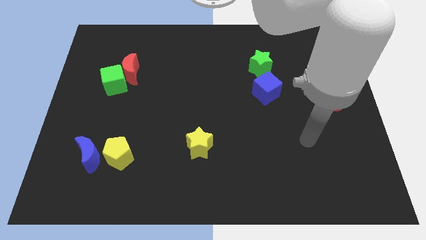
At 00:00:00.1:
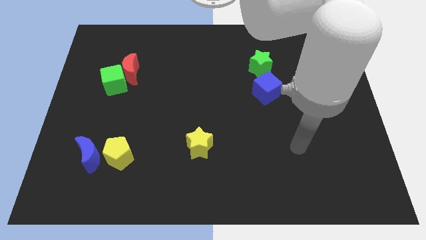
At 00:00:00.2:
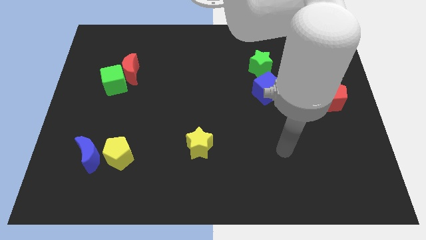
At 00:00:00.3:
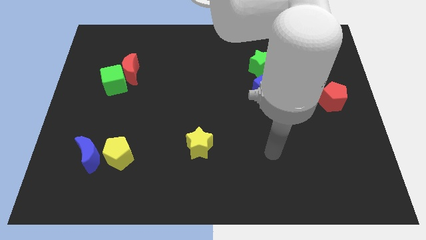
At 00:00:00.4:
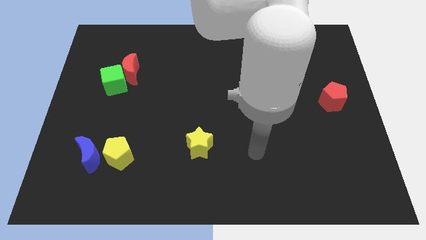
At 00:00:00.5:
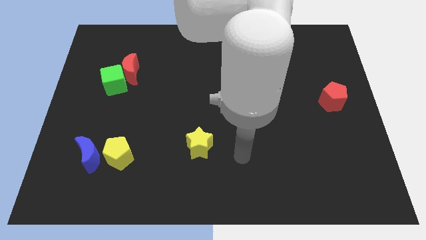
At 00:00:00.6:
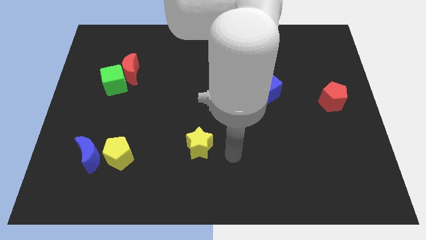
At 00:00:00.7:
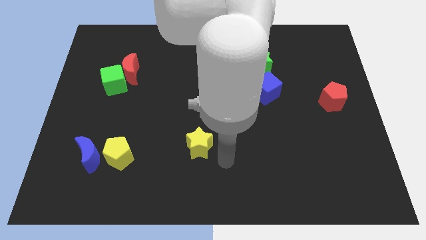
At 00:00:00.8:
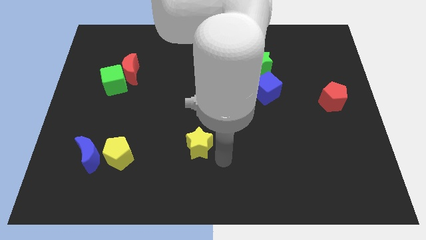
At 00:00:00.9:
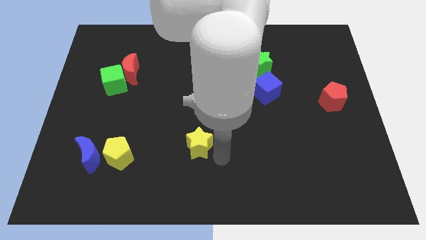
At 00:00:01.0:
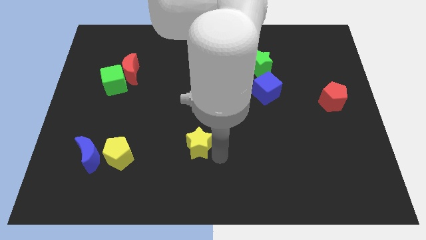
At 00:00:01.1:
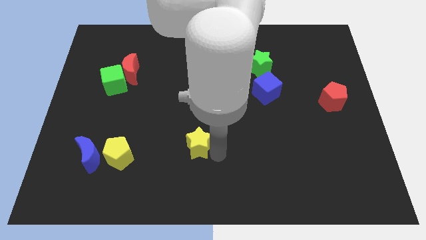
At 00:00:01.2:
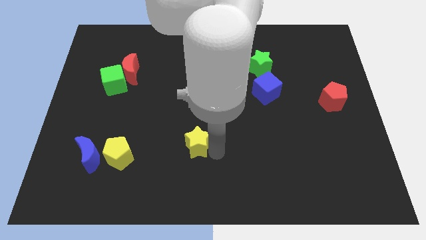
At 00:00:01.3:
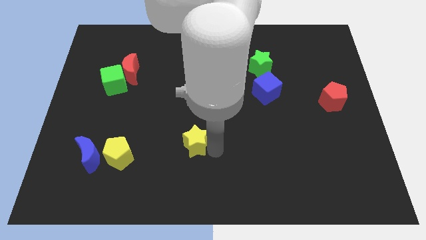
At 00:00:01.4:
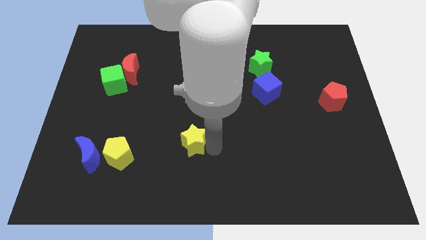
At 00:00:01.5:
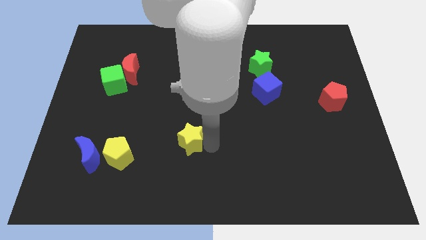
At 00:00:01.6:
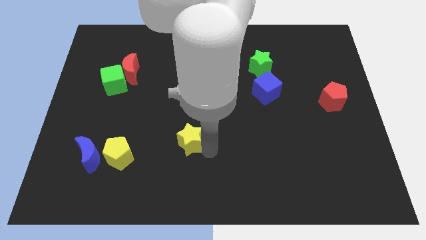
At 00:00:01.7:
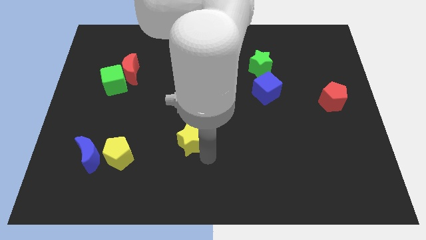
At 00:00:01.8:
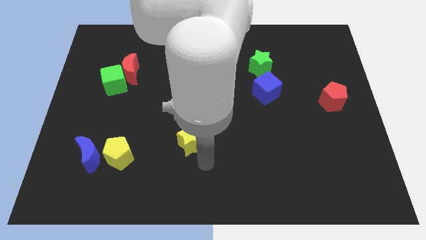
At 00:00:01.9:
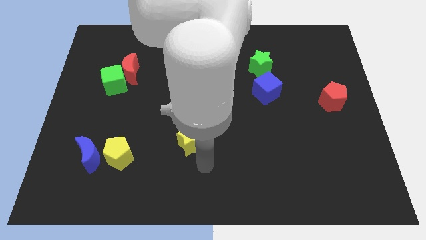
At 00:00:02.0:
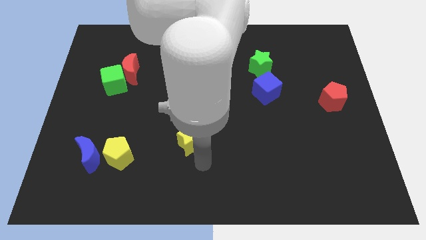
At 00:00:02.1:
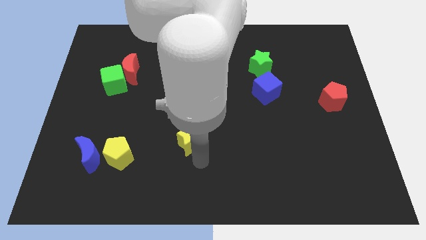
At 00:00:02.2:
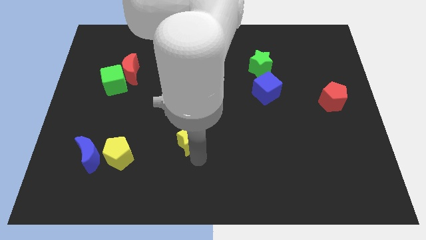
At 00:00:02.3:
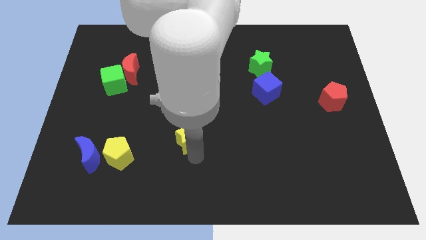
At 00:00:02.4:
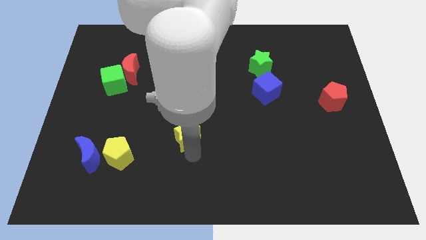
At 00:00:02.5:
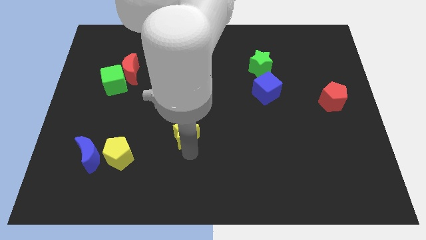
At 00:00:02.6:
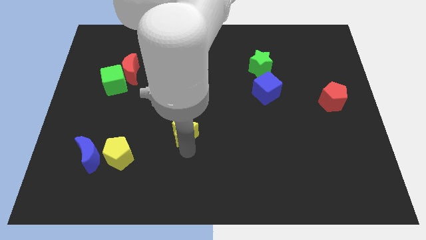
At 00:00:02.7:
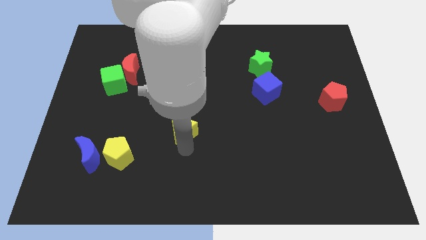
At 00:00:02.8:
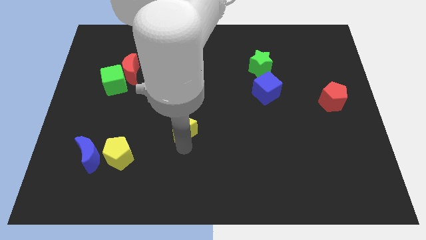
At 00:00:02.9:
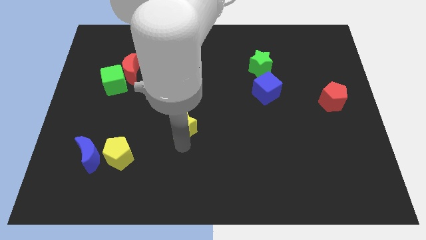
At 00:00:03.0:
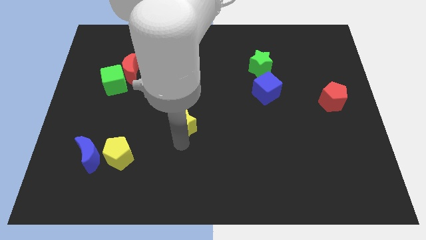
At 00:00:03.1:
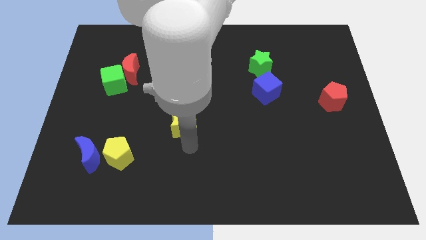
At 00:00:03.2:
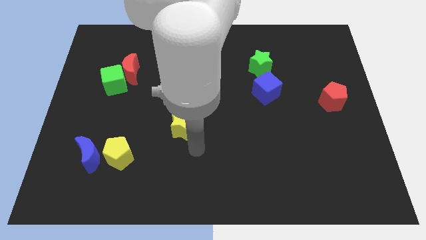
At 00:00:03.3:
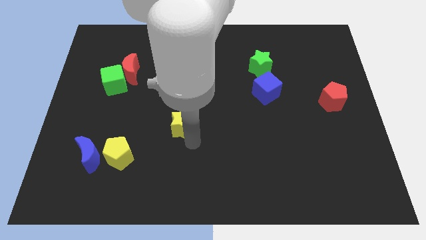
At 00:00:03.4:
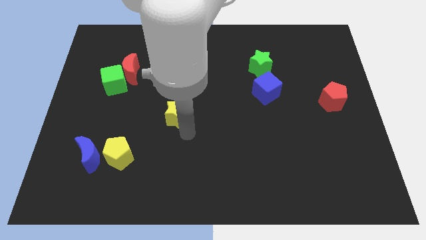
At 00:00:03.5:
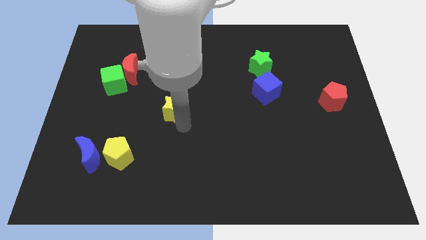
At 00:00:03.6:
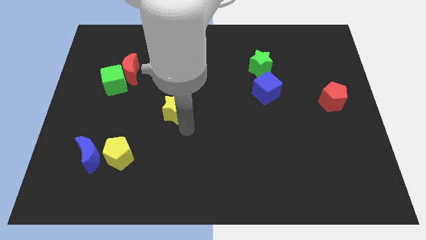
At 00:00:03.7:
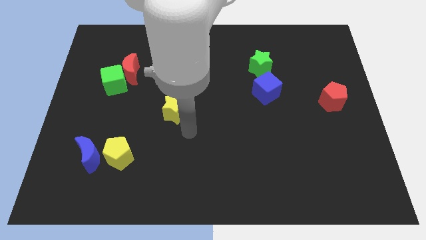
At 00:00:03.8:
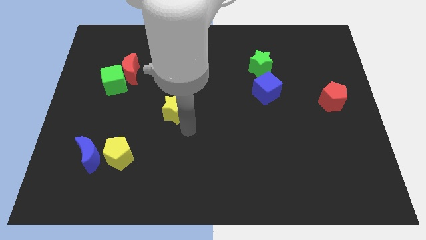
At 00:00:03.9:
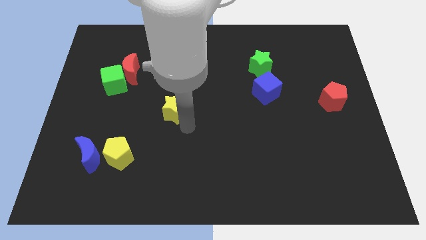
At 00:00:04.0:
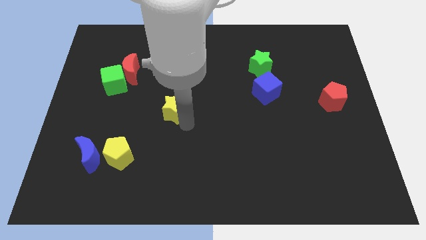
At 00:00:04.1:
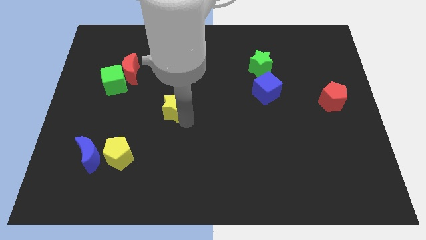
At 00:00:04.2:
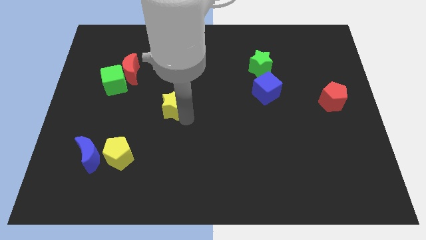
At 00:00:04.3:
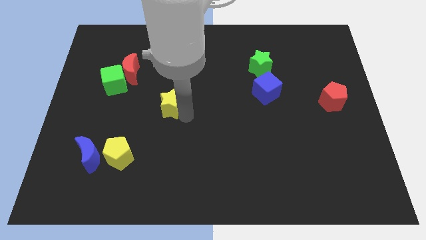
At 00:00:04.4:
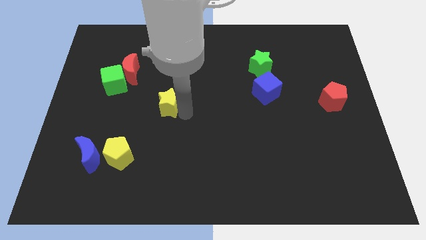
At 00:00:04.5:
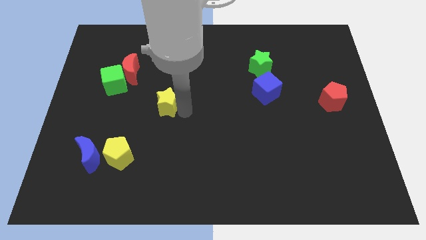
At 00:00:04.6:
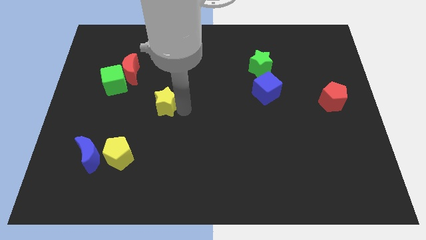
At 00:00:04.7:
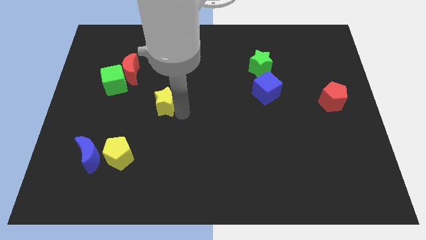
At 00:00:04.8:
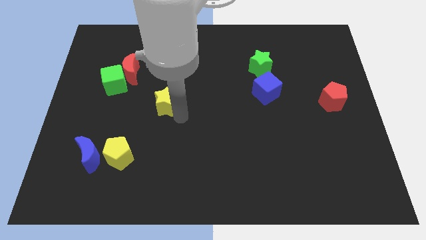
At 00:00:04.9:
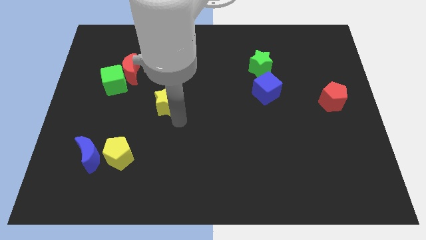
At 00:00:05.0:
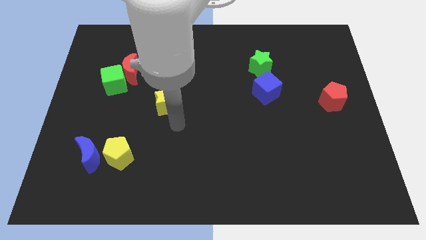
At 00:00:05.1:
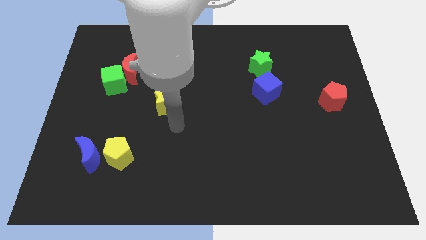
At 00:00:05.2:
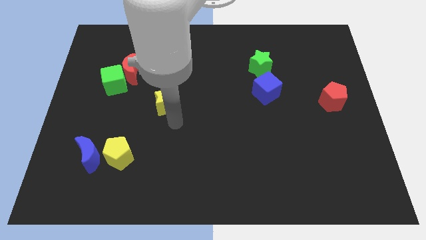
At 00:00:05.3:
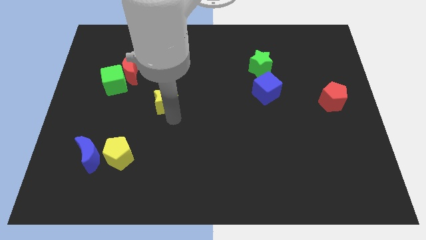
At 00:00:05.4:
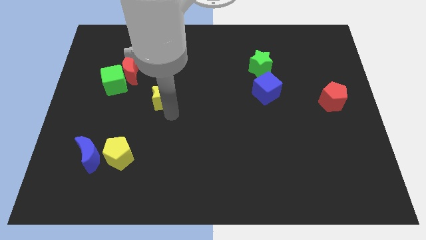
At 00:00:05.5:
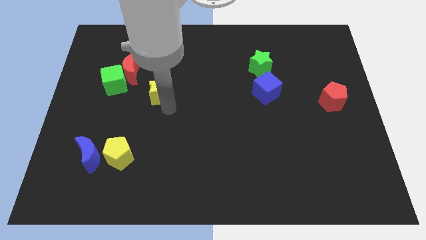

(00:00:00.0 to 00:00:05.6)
move the yellow star right of the green cube

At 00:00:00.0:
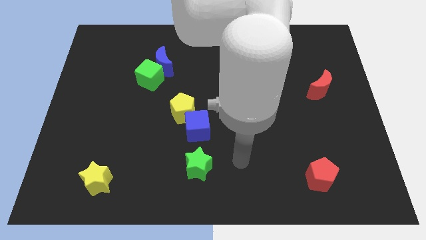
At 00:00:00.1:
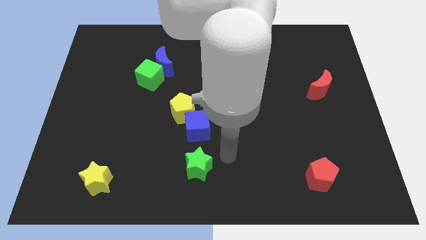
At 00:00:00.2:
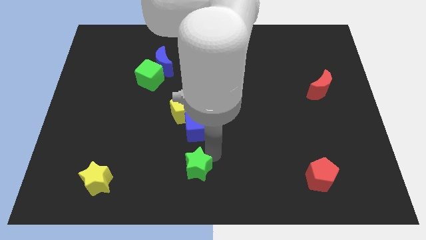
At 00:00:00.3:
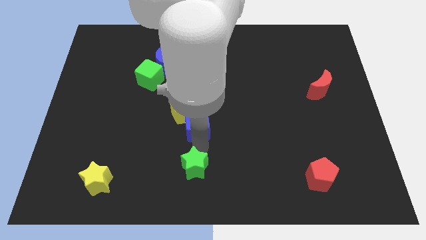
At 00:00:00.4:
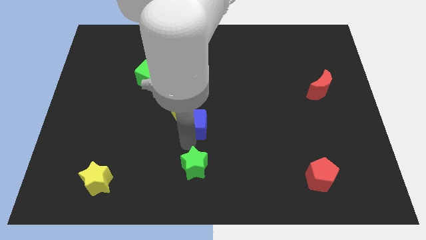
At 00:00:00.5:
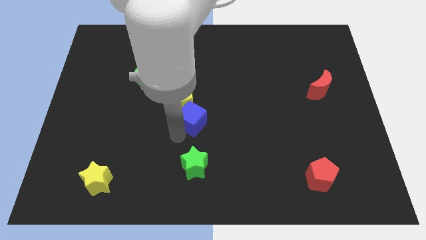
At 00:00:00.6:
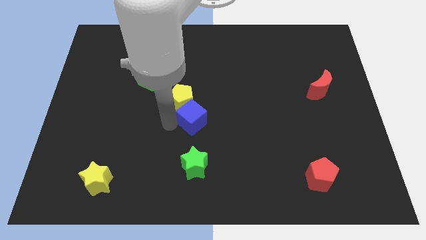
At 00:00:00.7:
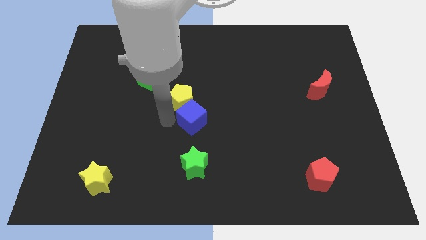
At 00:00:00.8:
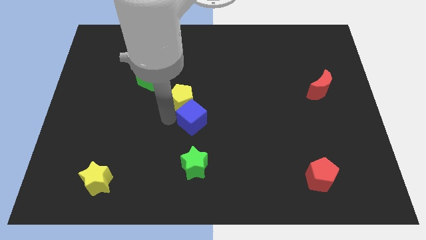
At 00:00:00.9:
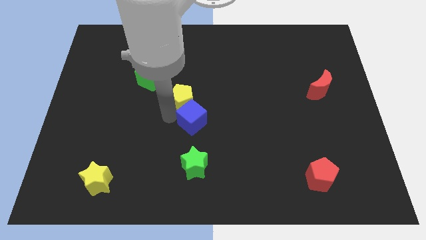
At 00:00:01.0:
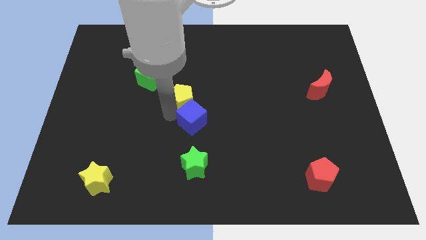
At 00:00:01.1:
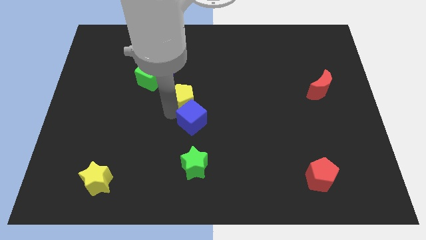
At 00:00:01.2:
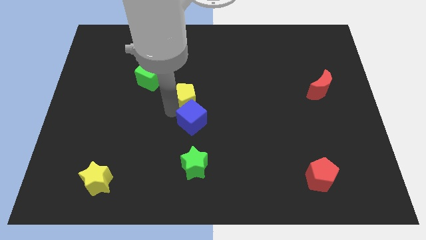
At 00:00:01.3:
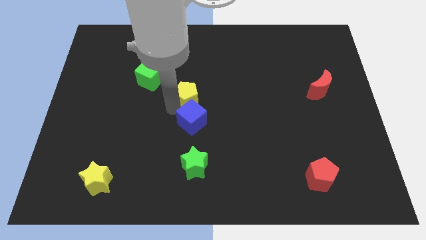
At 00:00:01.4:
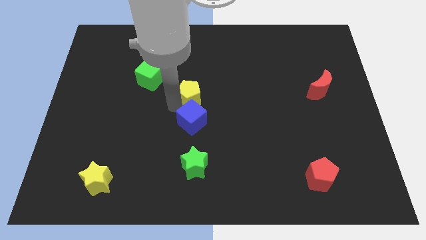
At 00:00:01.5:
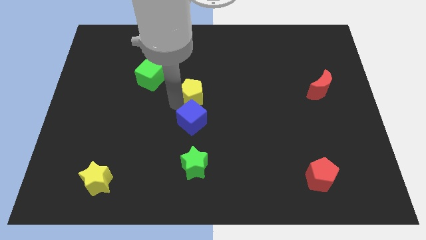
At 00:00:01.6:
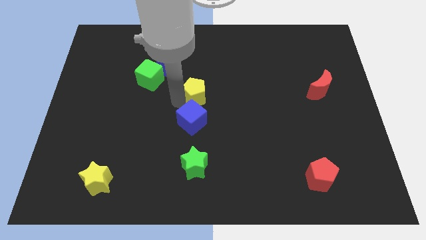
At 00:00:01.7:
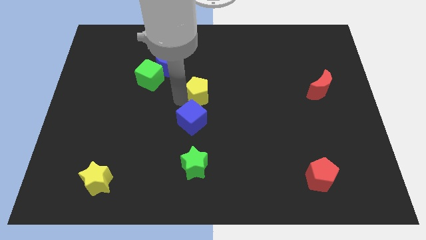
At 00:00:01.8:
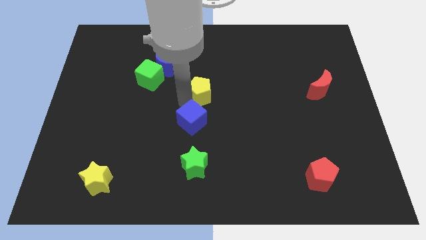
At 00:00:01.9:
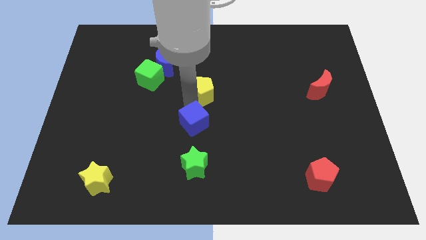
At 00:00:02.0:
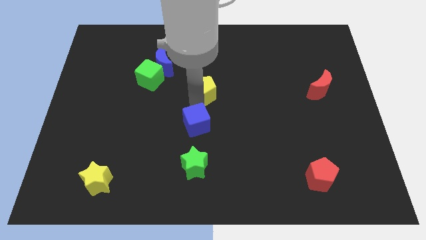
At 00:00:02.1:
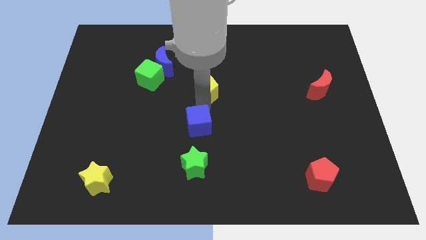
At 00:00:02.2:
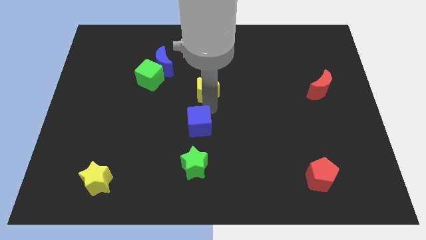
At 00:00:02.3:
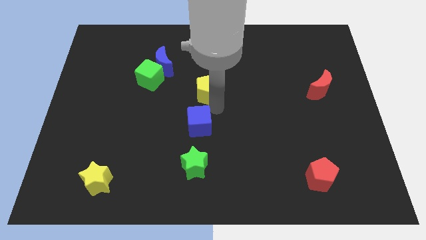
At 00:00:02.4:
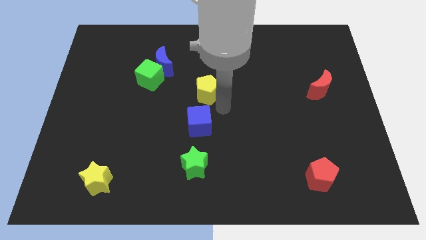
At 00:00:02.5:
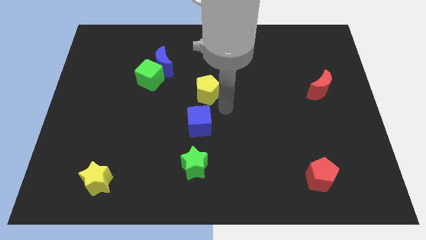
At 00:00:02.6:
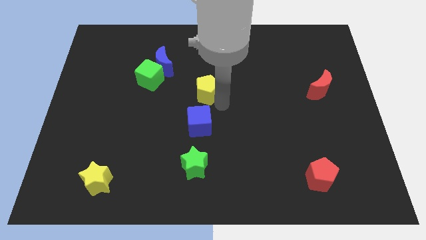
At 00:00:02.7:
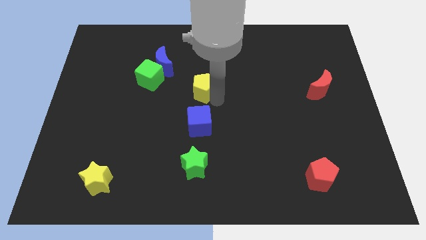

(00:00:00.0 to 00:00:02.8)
slide the yellow pentagon to the right of the green cube
